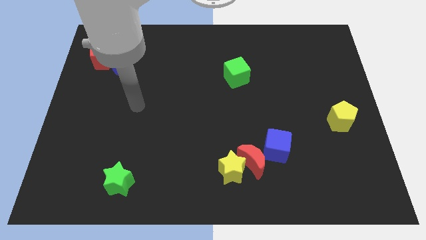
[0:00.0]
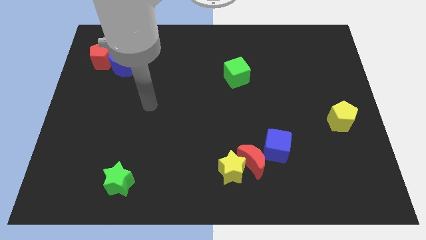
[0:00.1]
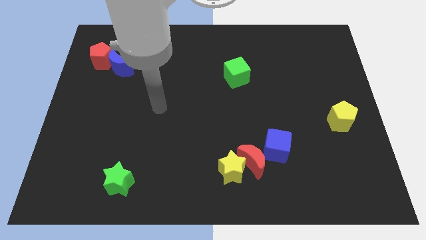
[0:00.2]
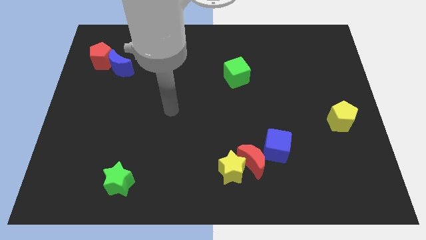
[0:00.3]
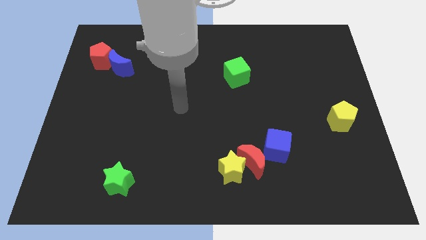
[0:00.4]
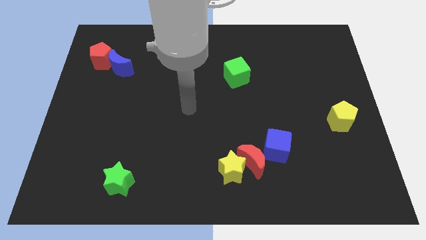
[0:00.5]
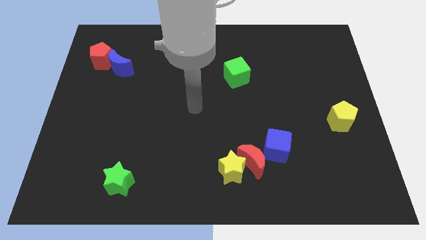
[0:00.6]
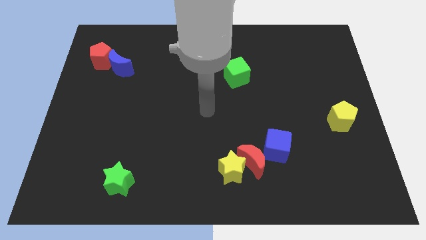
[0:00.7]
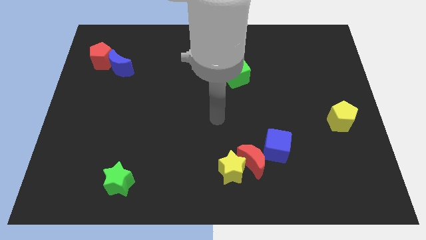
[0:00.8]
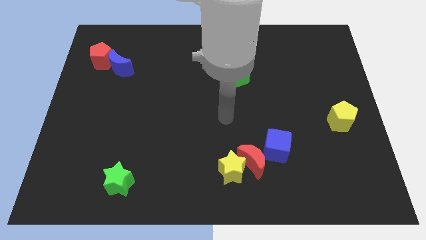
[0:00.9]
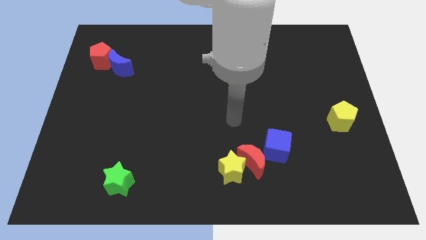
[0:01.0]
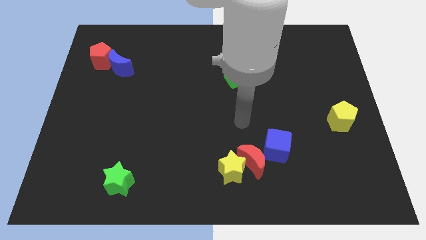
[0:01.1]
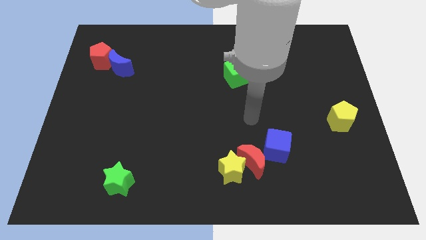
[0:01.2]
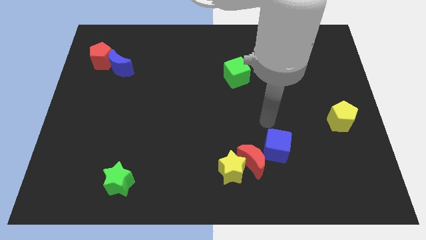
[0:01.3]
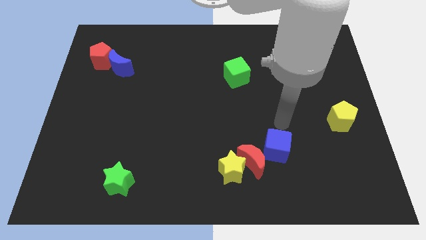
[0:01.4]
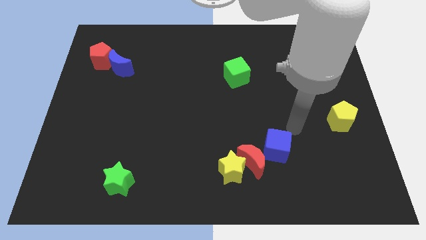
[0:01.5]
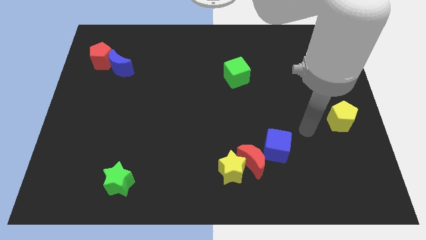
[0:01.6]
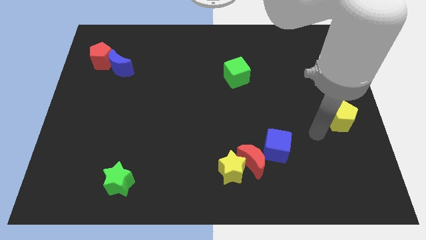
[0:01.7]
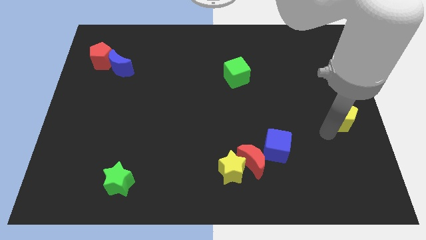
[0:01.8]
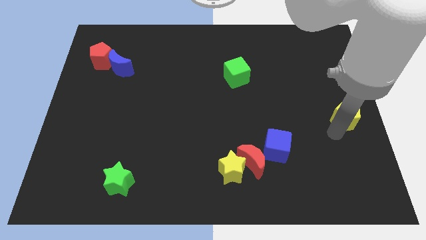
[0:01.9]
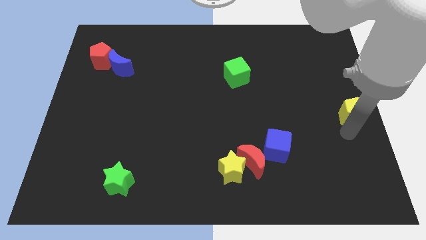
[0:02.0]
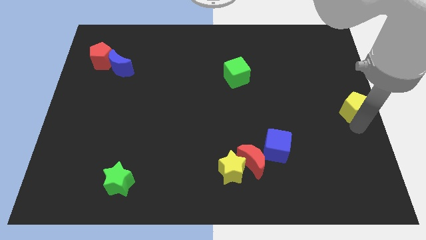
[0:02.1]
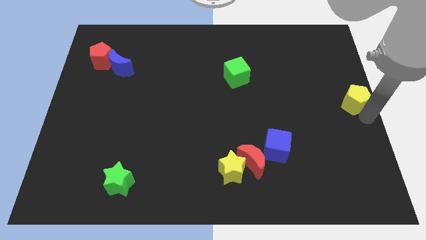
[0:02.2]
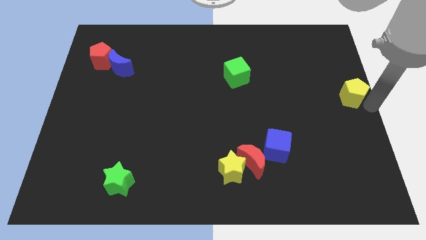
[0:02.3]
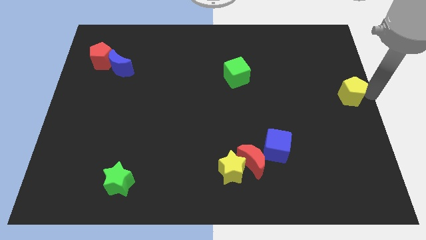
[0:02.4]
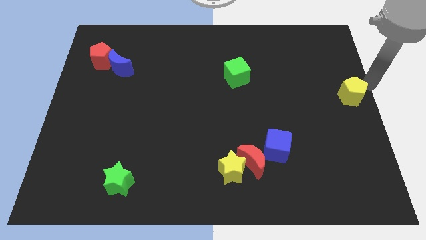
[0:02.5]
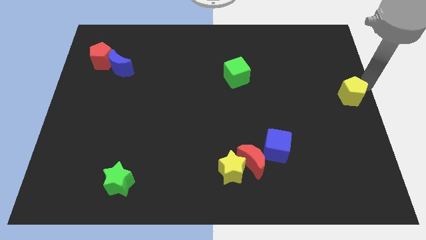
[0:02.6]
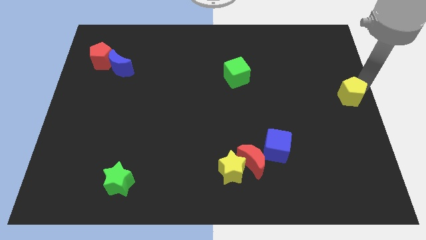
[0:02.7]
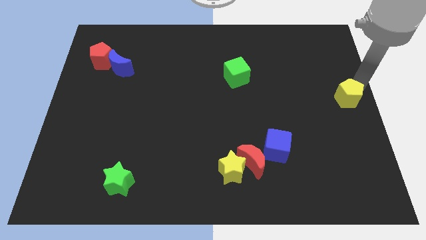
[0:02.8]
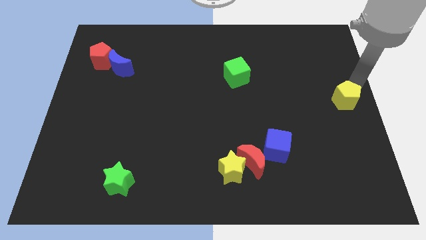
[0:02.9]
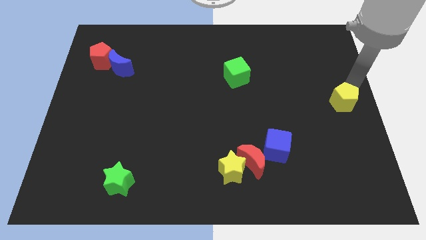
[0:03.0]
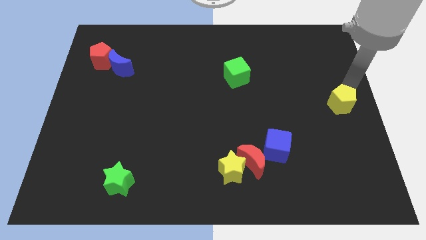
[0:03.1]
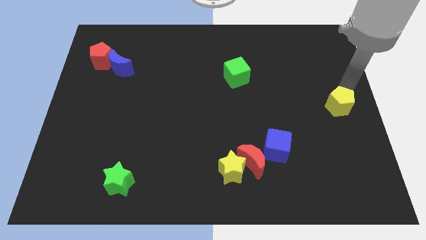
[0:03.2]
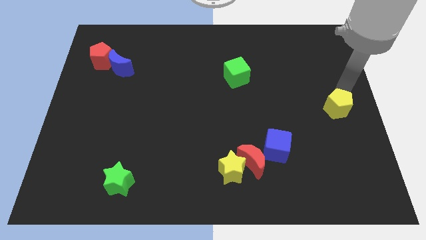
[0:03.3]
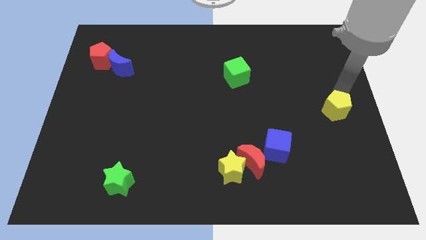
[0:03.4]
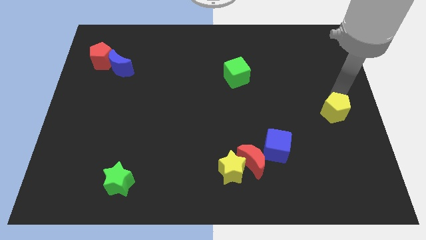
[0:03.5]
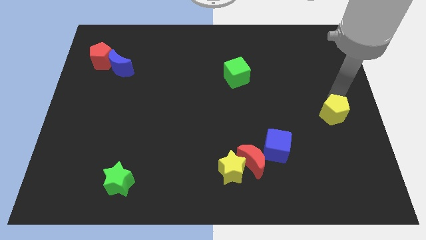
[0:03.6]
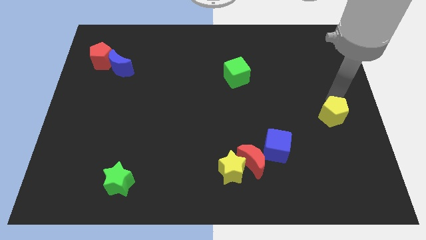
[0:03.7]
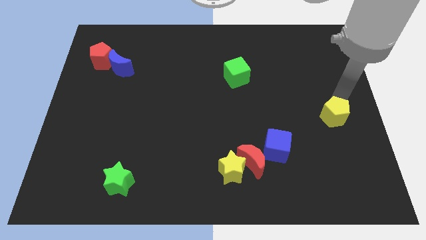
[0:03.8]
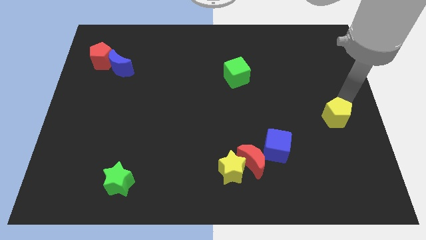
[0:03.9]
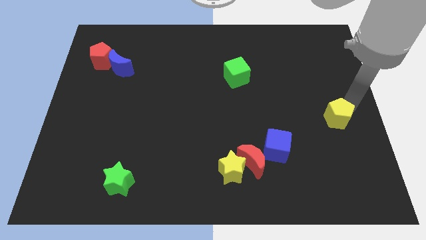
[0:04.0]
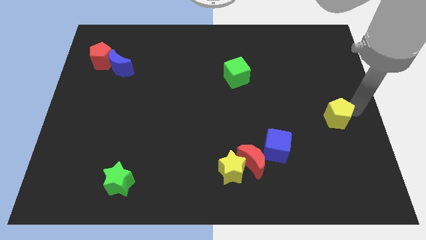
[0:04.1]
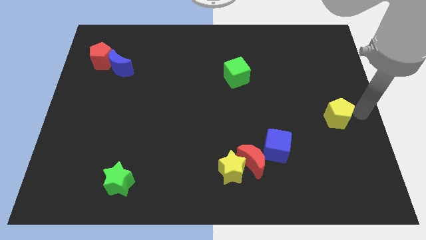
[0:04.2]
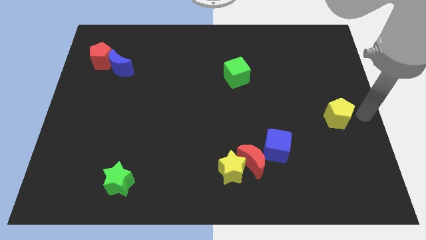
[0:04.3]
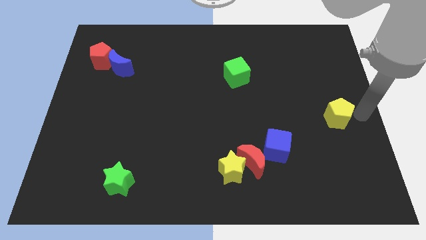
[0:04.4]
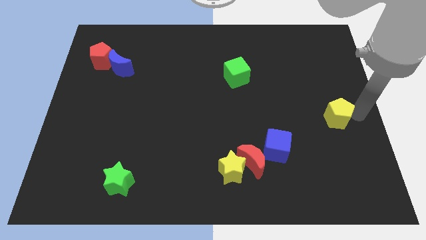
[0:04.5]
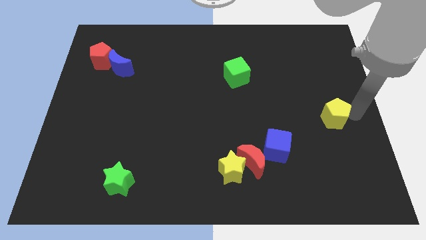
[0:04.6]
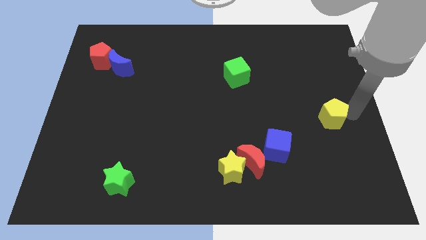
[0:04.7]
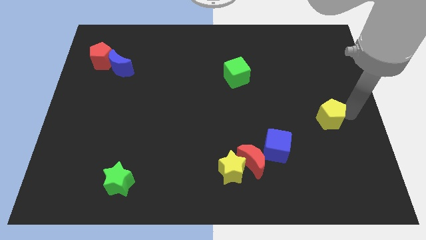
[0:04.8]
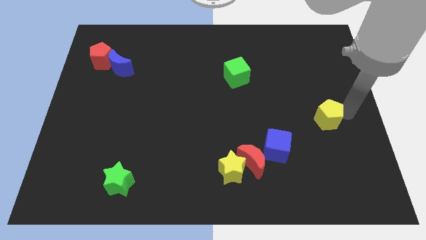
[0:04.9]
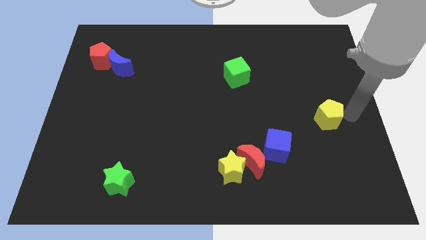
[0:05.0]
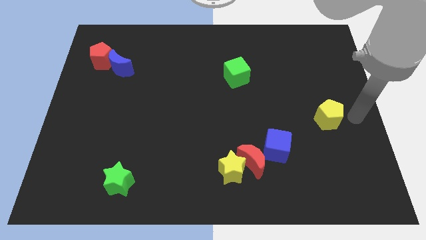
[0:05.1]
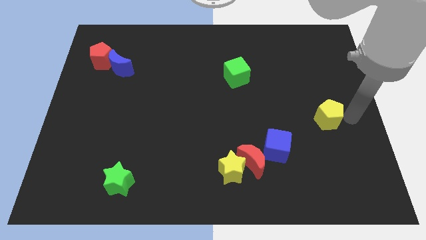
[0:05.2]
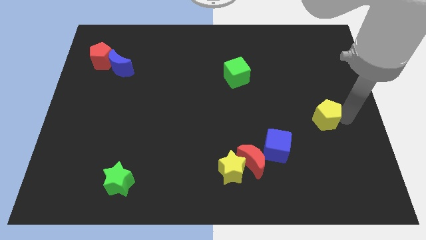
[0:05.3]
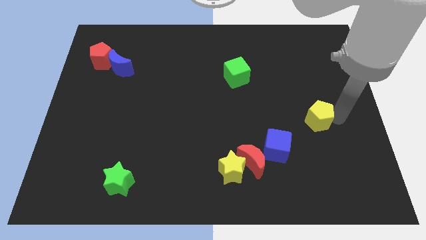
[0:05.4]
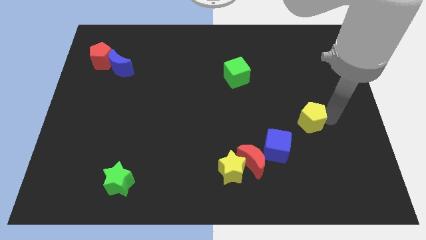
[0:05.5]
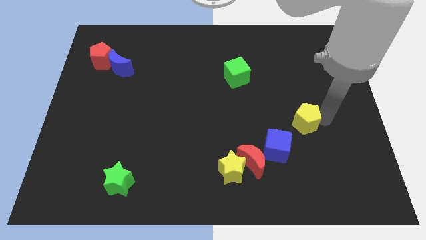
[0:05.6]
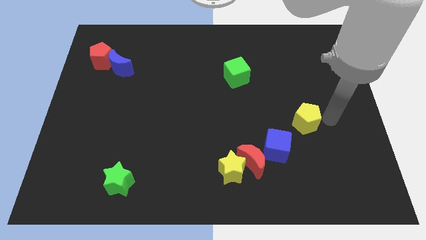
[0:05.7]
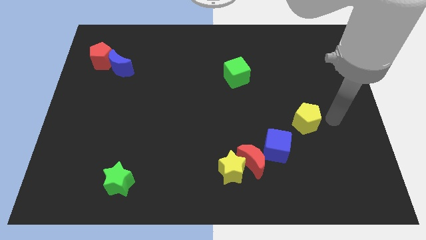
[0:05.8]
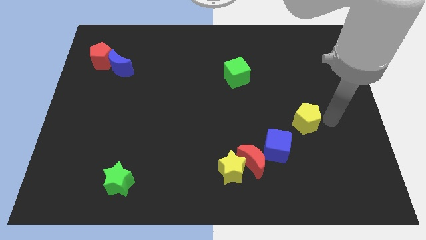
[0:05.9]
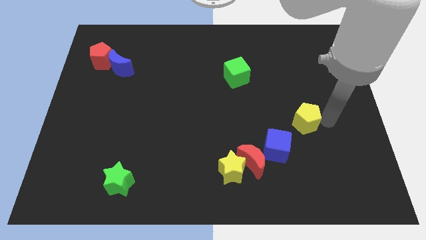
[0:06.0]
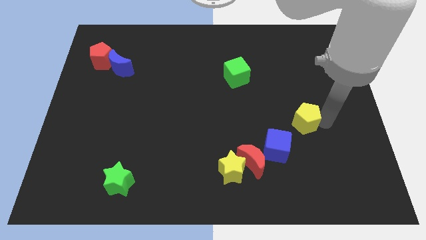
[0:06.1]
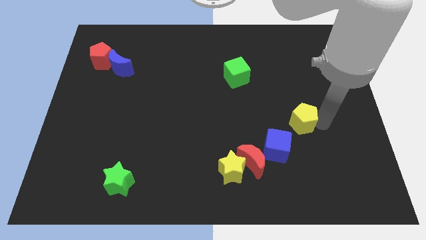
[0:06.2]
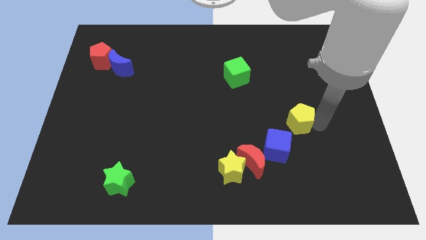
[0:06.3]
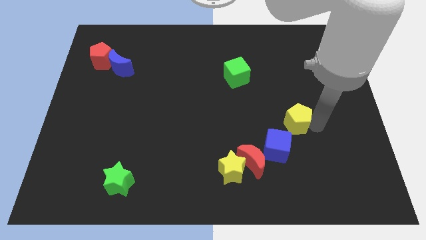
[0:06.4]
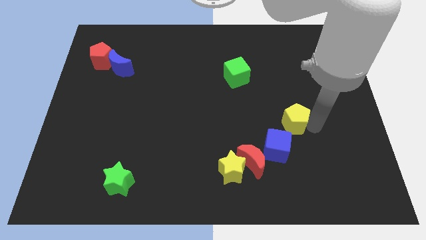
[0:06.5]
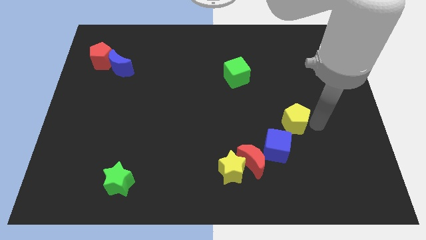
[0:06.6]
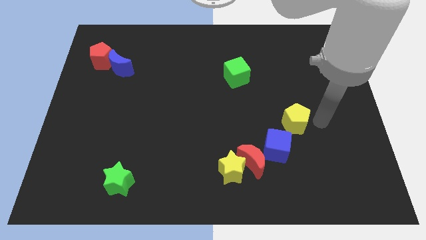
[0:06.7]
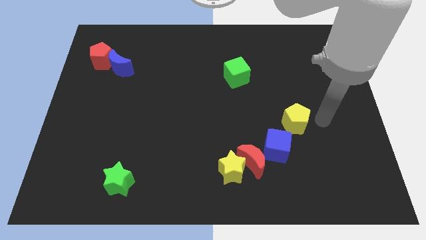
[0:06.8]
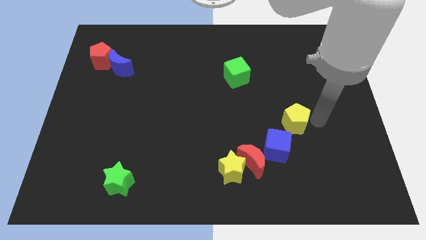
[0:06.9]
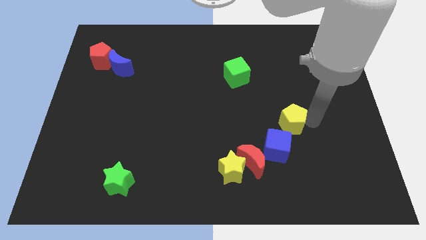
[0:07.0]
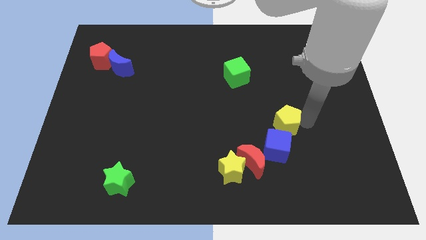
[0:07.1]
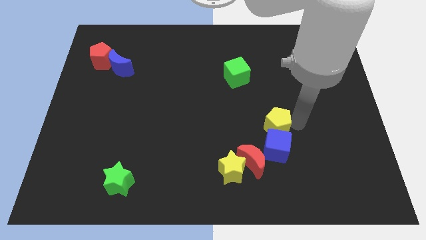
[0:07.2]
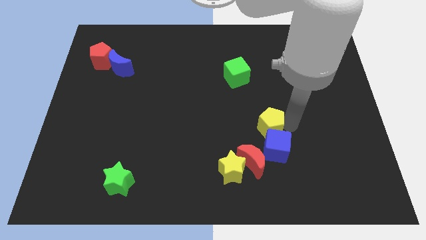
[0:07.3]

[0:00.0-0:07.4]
slide the yellow pentagon above the red moon
